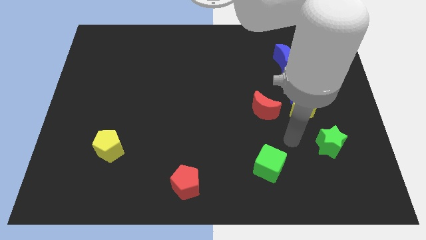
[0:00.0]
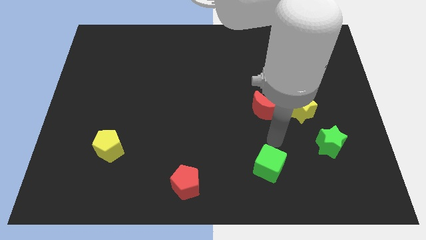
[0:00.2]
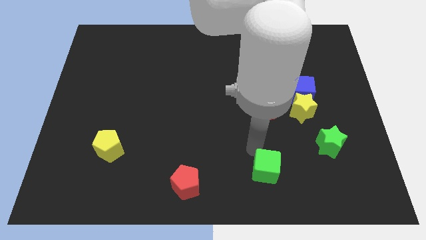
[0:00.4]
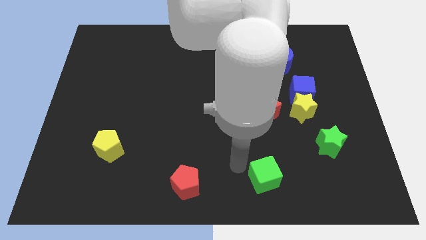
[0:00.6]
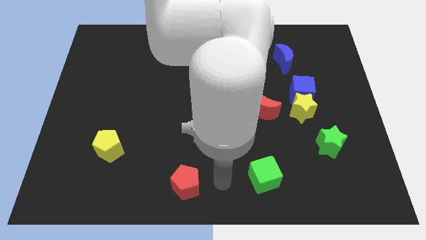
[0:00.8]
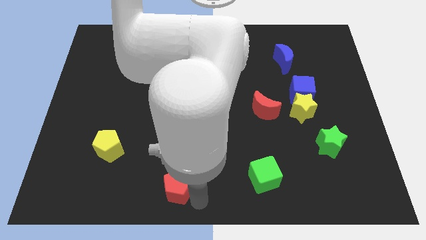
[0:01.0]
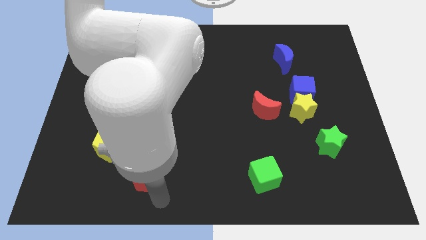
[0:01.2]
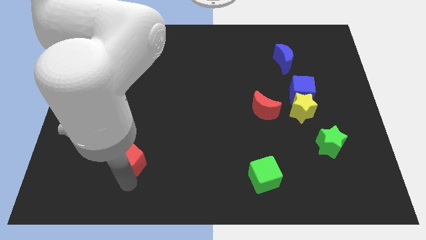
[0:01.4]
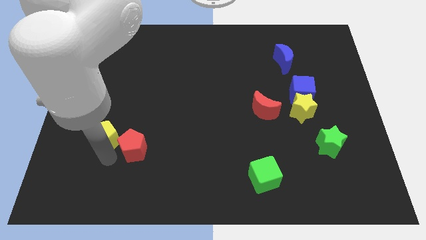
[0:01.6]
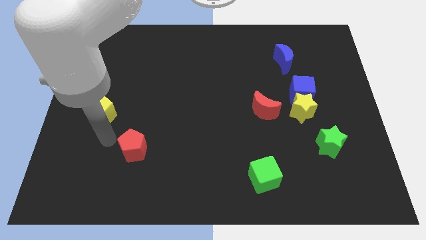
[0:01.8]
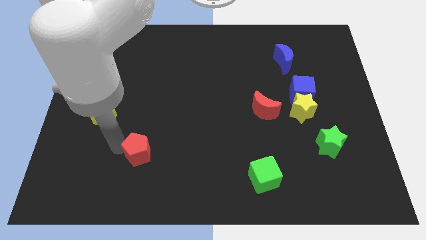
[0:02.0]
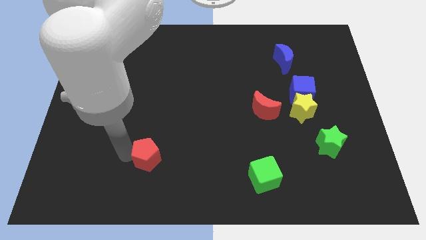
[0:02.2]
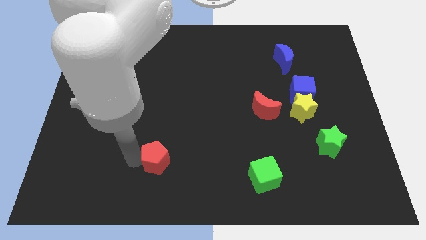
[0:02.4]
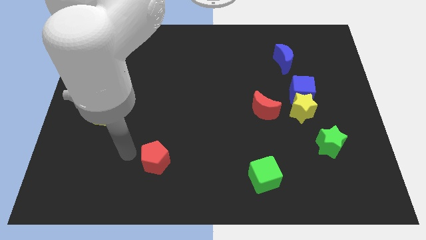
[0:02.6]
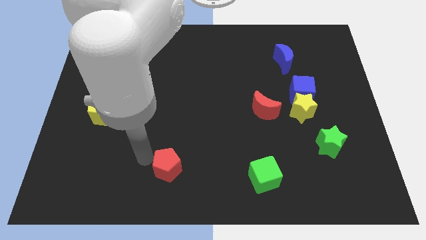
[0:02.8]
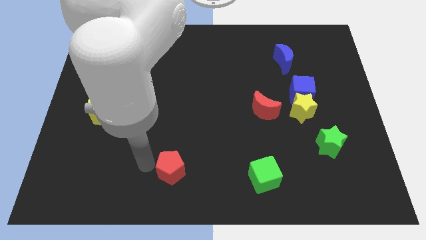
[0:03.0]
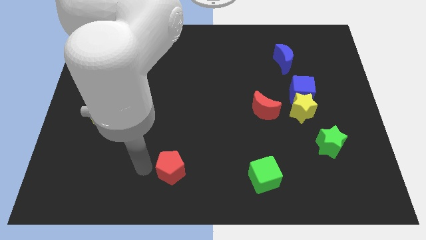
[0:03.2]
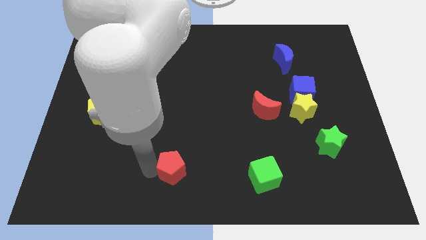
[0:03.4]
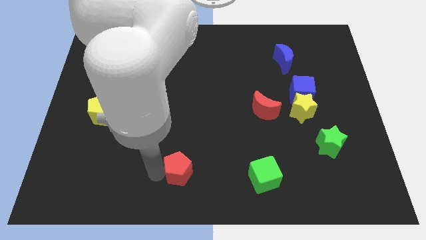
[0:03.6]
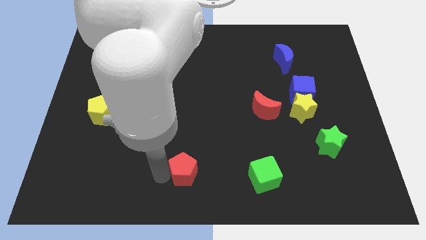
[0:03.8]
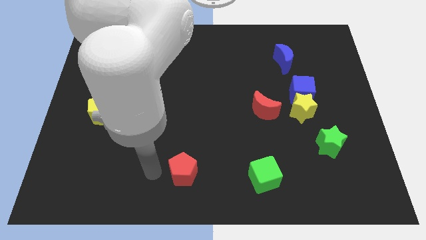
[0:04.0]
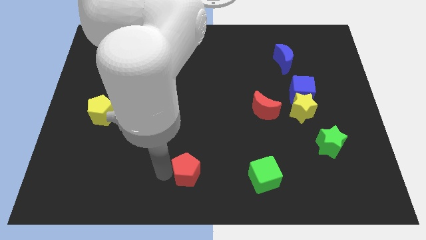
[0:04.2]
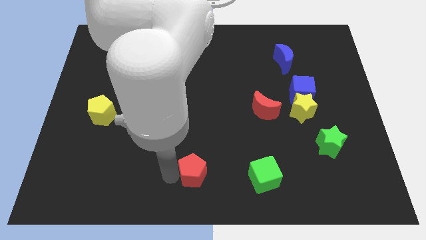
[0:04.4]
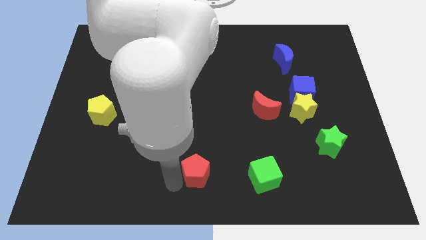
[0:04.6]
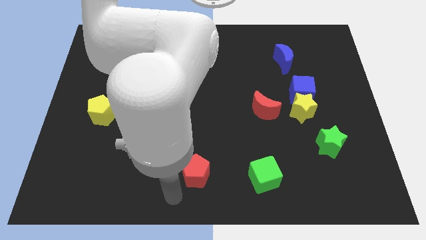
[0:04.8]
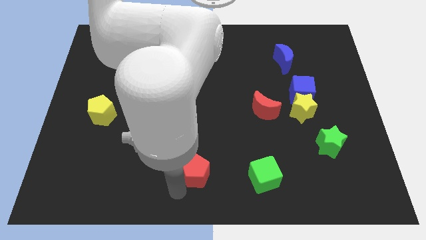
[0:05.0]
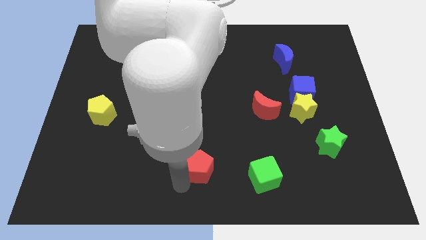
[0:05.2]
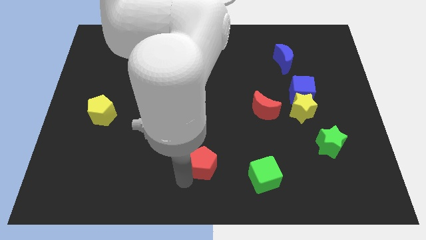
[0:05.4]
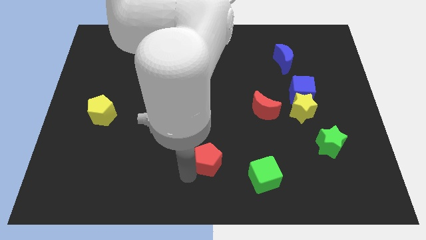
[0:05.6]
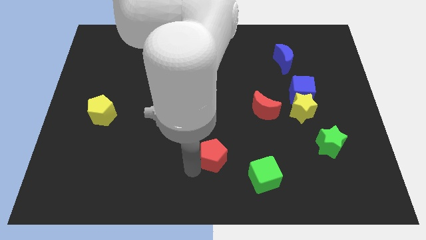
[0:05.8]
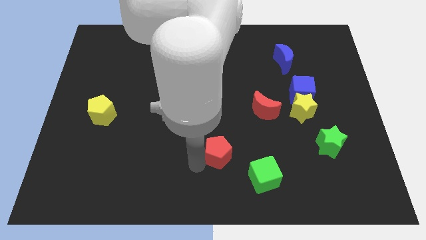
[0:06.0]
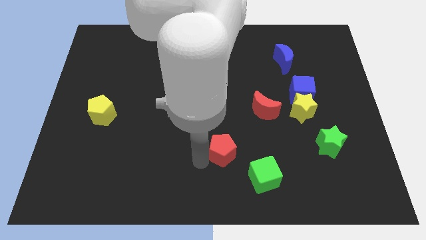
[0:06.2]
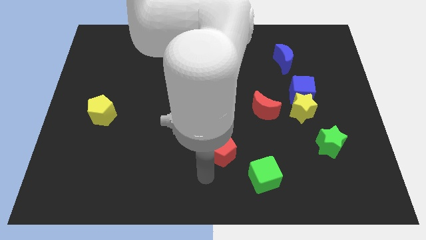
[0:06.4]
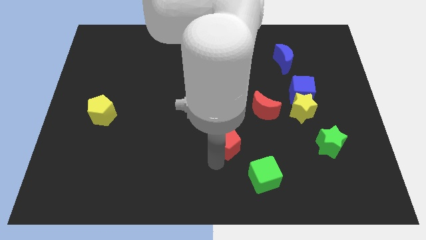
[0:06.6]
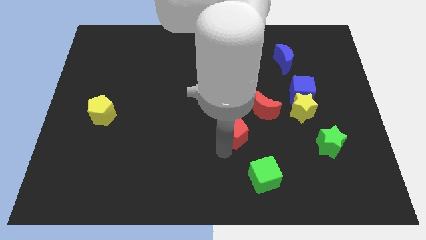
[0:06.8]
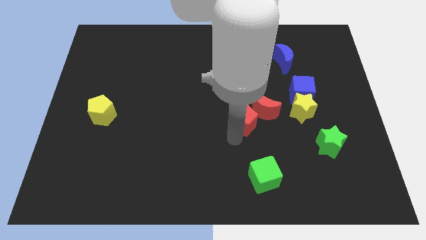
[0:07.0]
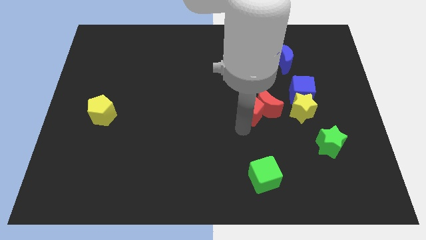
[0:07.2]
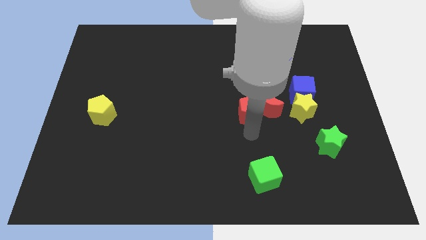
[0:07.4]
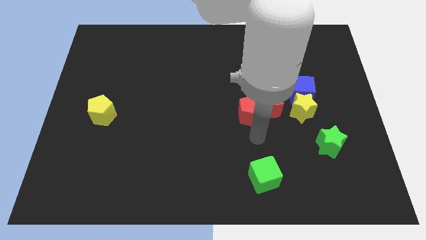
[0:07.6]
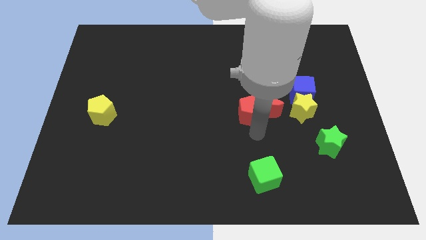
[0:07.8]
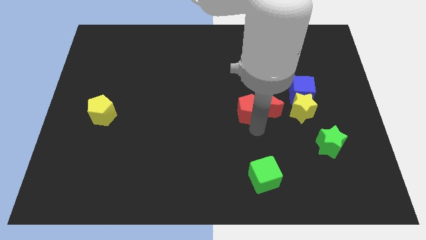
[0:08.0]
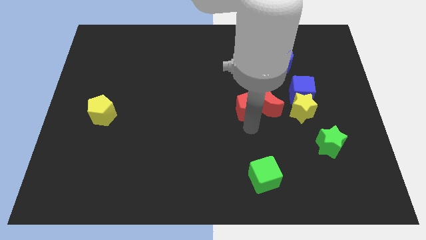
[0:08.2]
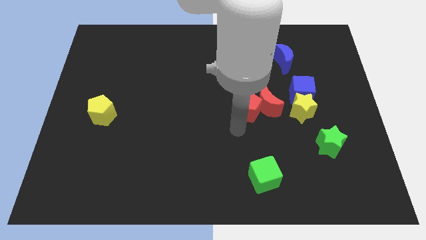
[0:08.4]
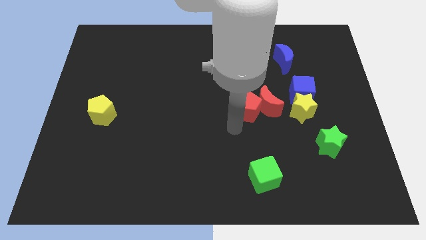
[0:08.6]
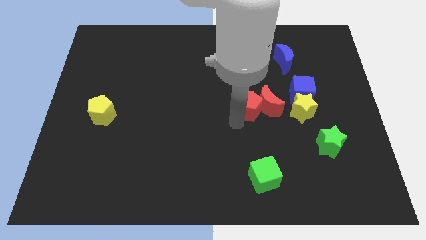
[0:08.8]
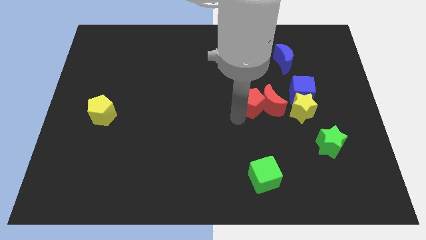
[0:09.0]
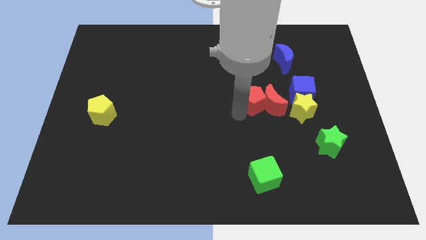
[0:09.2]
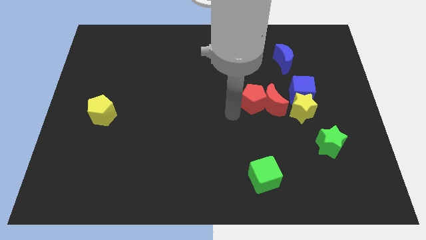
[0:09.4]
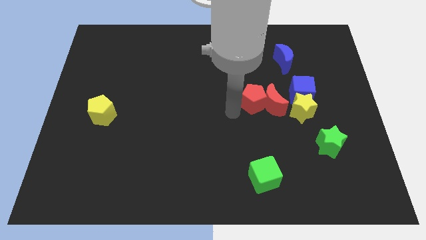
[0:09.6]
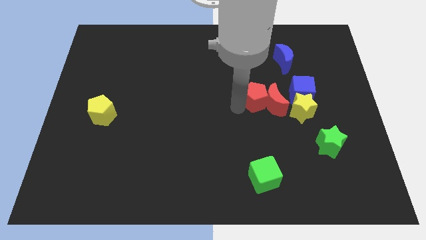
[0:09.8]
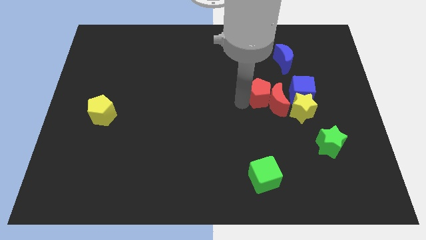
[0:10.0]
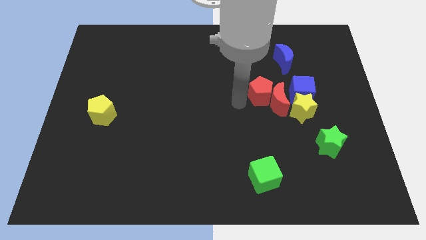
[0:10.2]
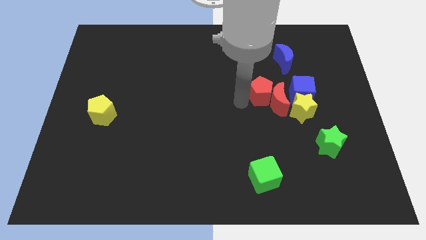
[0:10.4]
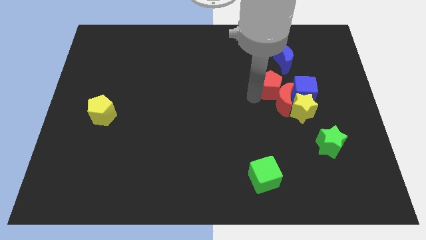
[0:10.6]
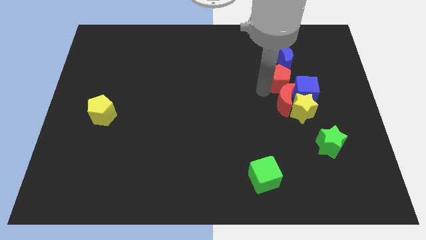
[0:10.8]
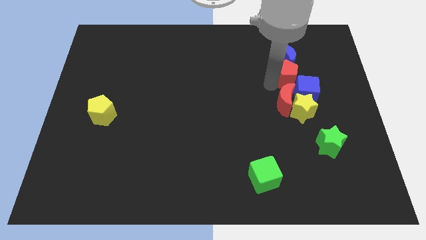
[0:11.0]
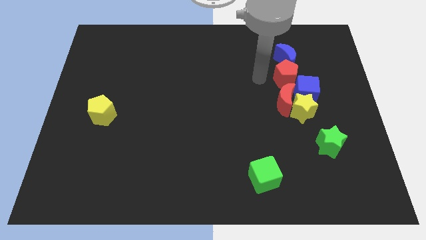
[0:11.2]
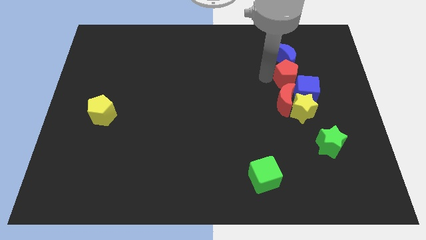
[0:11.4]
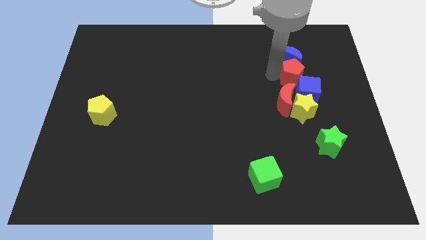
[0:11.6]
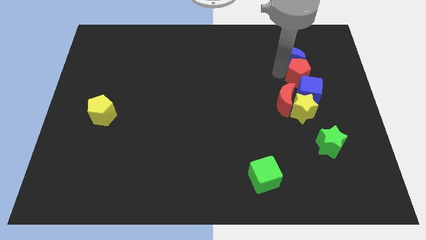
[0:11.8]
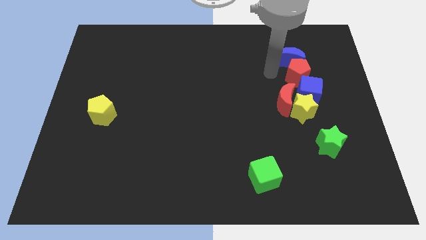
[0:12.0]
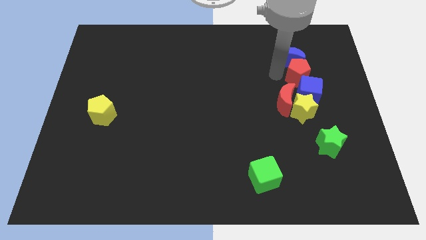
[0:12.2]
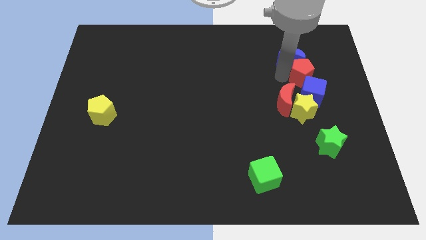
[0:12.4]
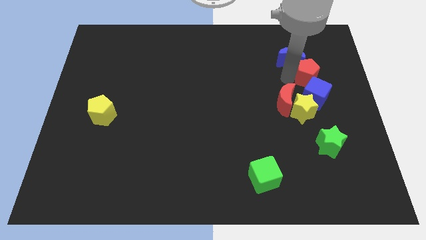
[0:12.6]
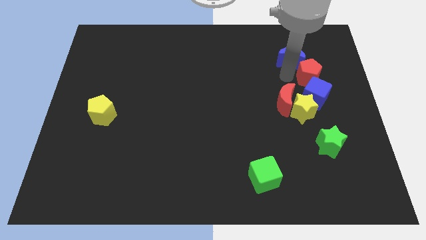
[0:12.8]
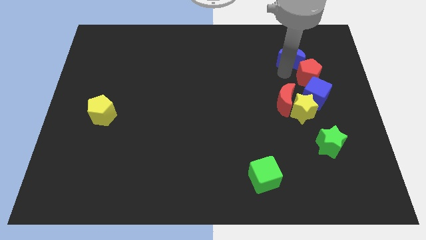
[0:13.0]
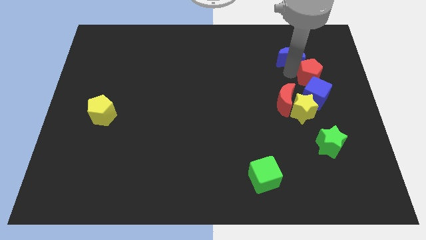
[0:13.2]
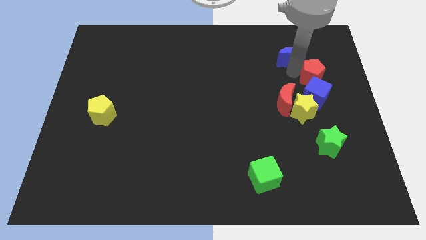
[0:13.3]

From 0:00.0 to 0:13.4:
slide the red pentagon to the top right side of the blue cube

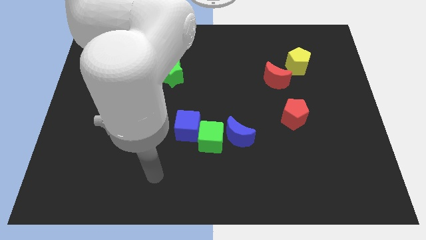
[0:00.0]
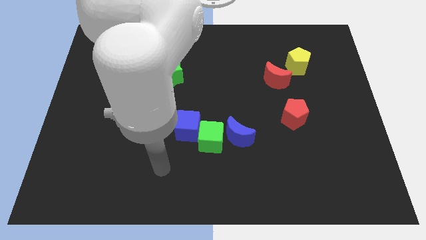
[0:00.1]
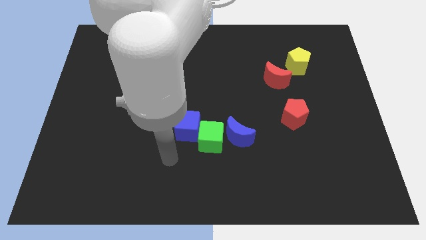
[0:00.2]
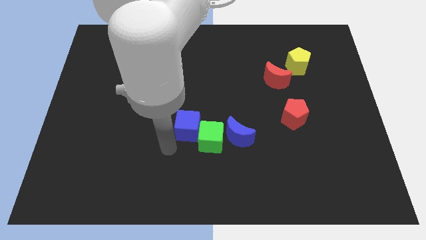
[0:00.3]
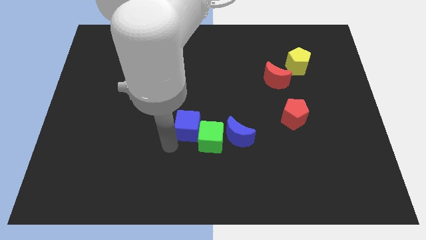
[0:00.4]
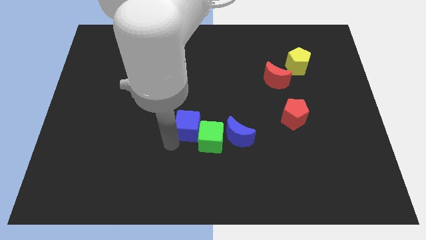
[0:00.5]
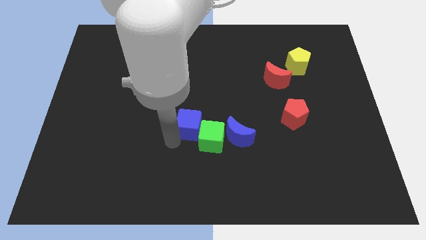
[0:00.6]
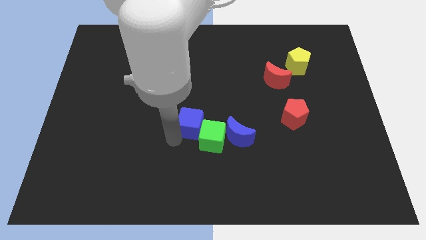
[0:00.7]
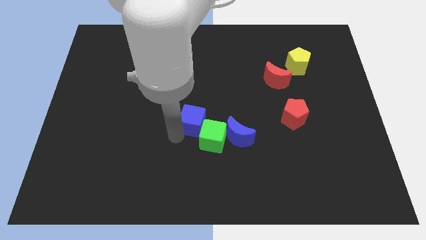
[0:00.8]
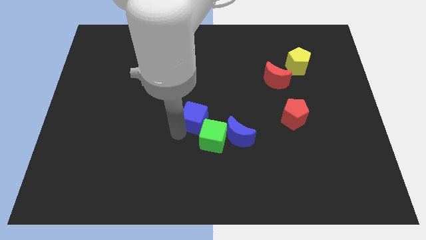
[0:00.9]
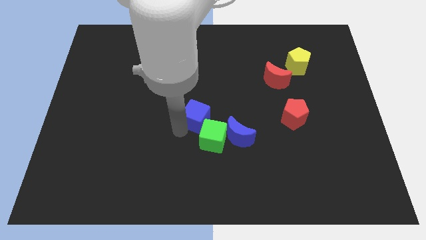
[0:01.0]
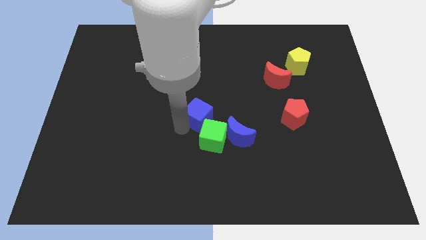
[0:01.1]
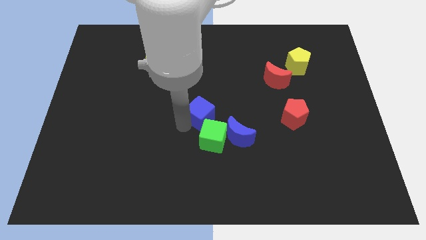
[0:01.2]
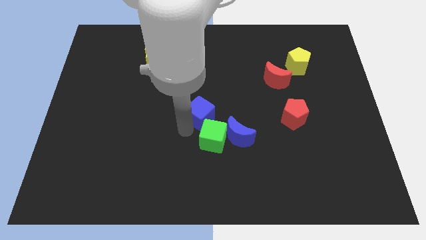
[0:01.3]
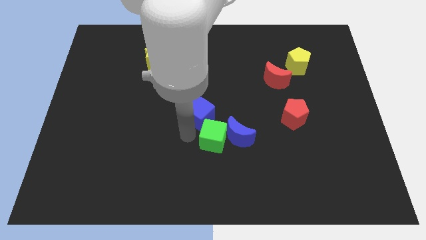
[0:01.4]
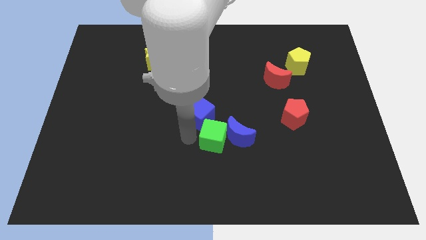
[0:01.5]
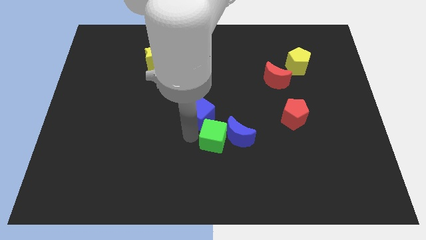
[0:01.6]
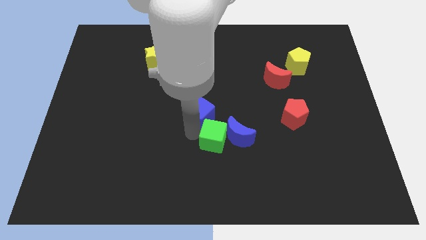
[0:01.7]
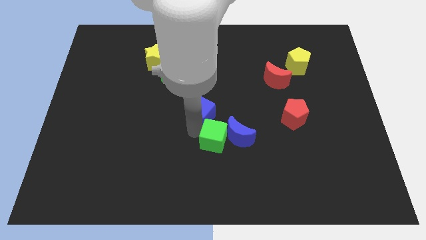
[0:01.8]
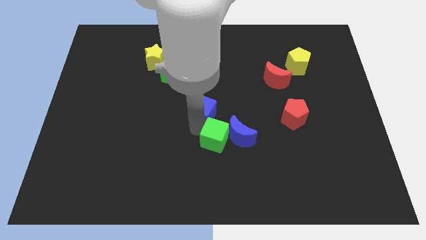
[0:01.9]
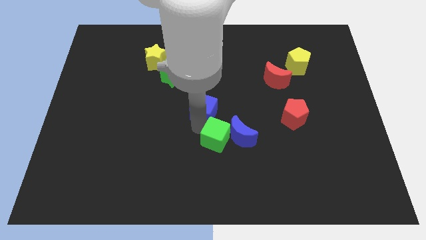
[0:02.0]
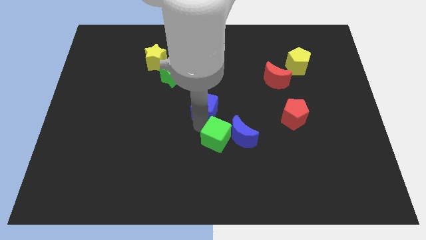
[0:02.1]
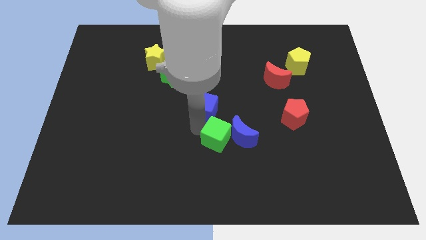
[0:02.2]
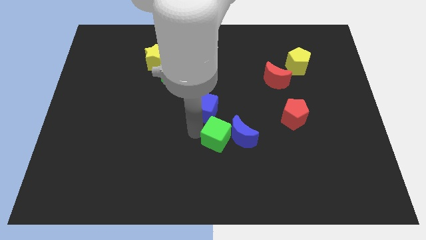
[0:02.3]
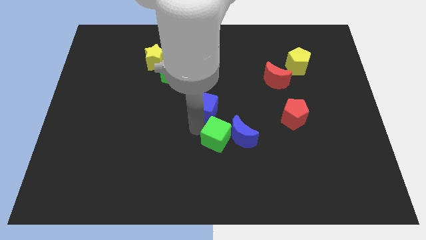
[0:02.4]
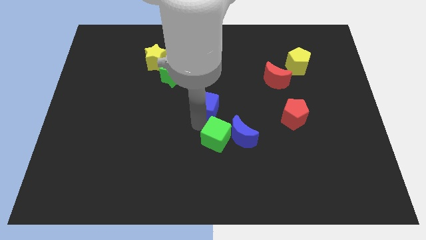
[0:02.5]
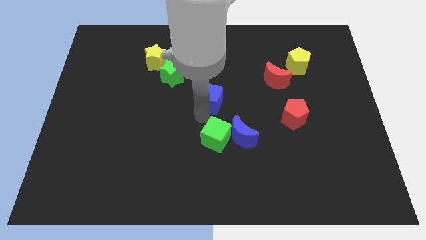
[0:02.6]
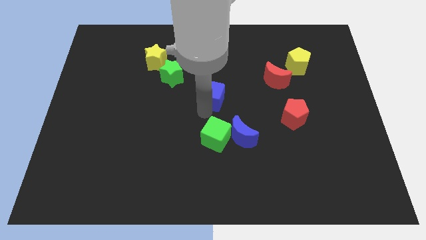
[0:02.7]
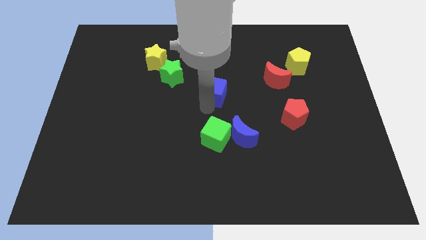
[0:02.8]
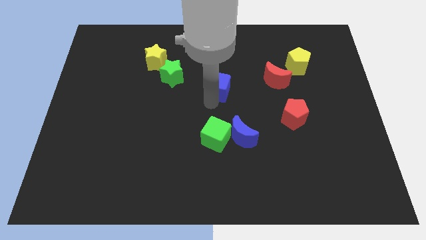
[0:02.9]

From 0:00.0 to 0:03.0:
move the blue cube to the right of the green star
